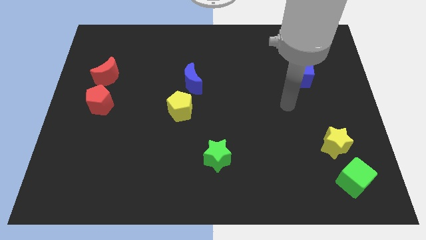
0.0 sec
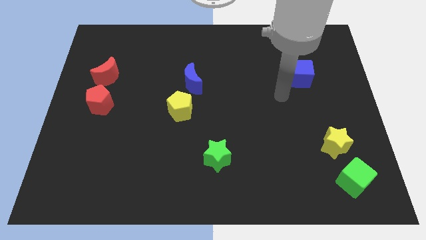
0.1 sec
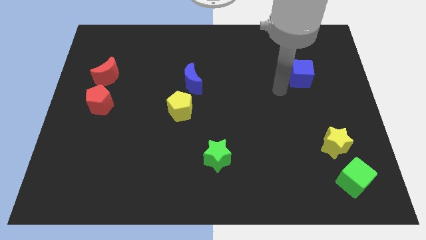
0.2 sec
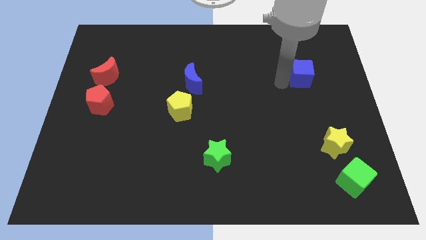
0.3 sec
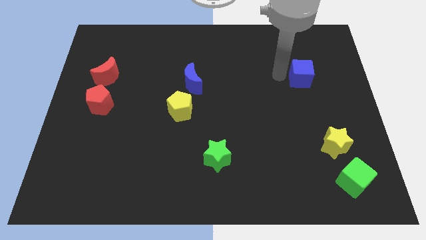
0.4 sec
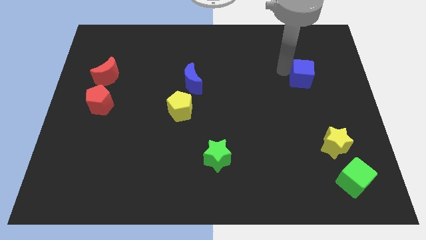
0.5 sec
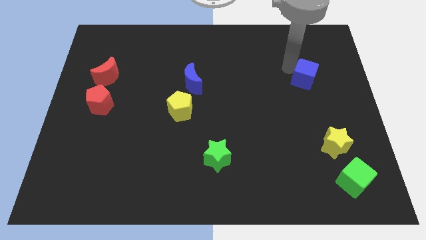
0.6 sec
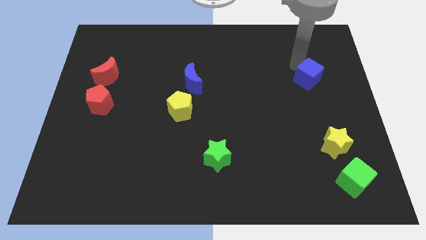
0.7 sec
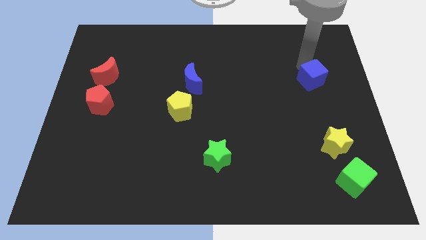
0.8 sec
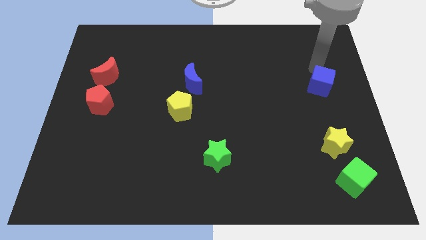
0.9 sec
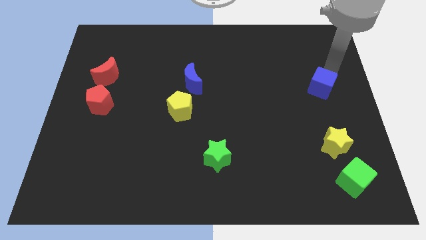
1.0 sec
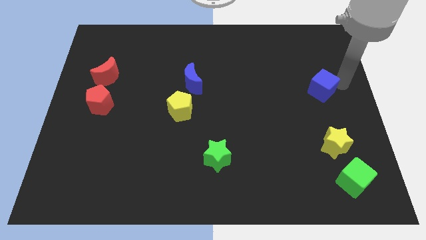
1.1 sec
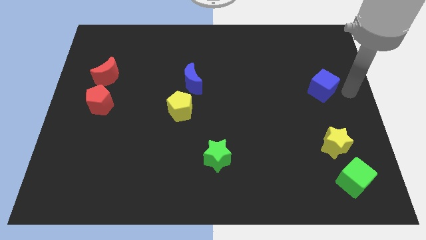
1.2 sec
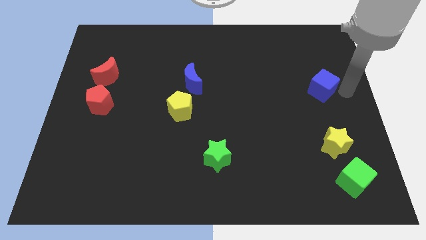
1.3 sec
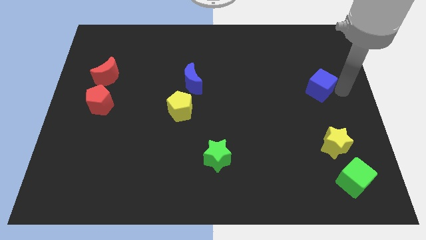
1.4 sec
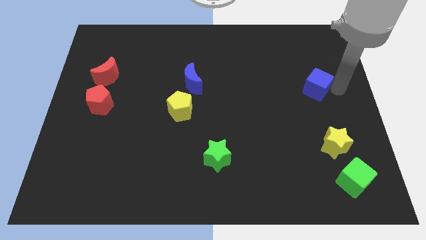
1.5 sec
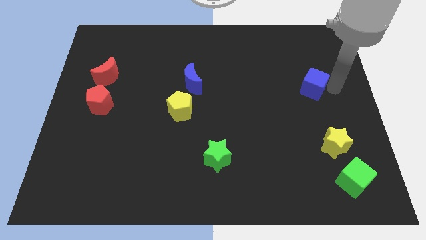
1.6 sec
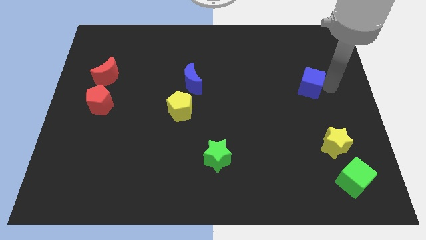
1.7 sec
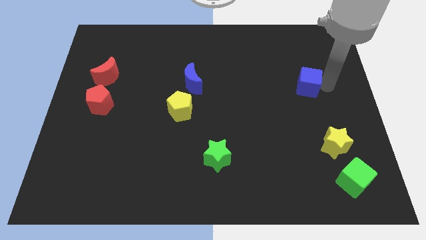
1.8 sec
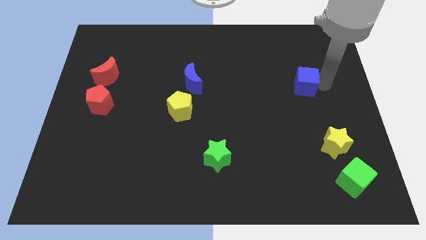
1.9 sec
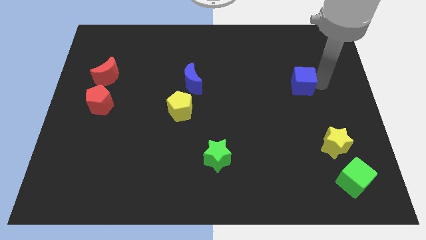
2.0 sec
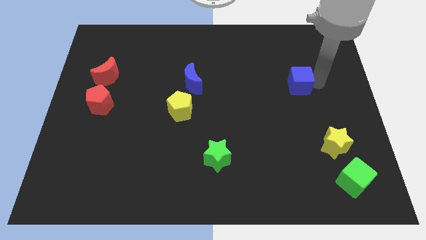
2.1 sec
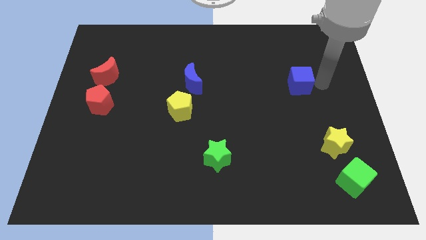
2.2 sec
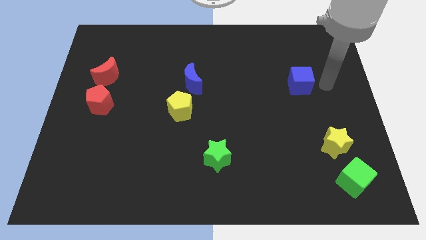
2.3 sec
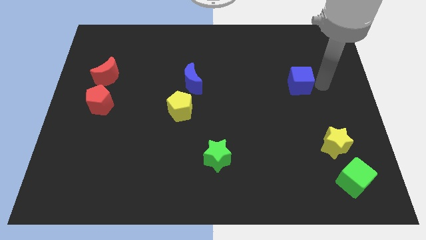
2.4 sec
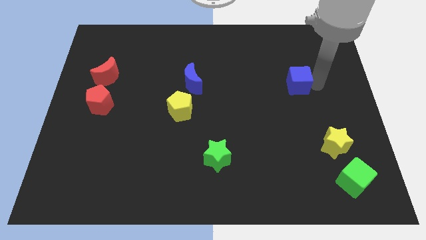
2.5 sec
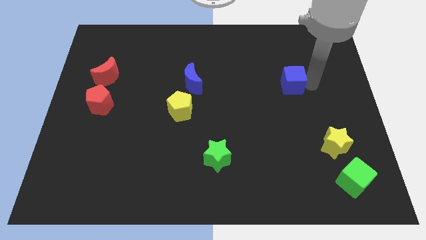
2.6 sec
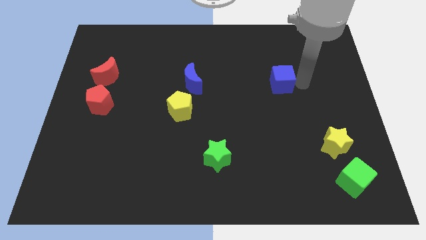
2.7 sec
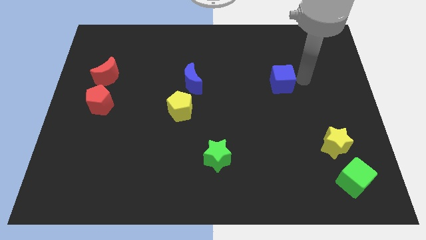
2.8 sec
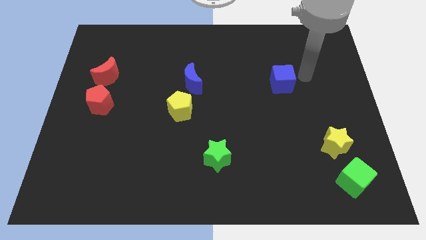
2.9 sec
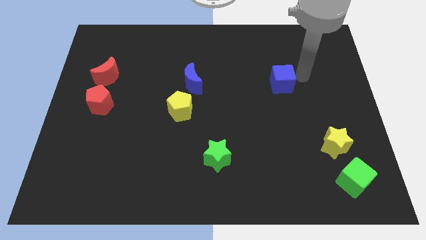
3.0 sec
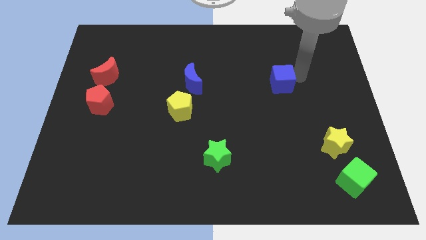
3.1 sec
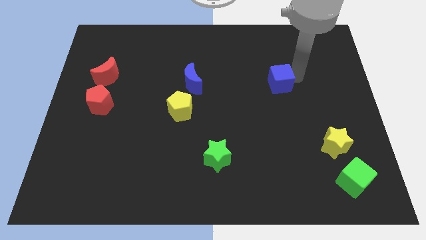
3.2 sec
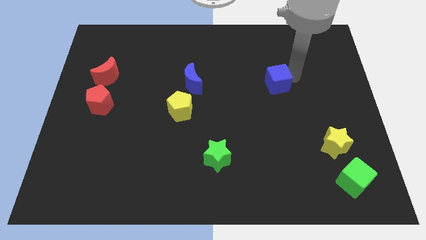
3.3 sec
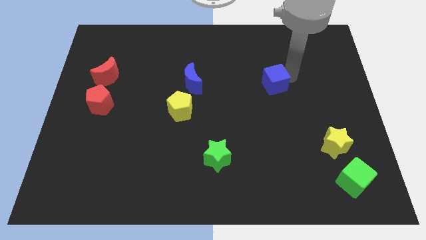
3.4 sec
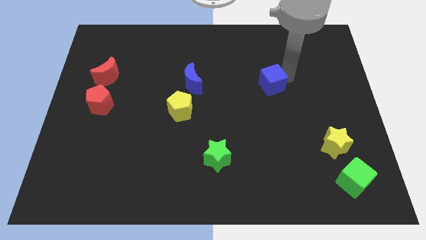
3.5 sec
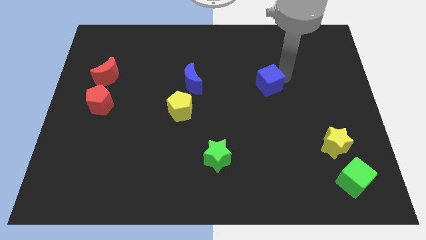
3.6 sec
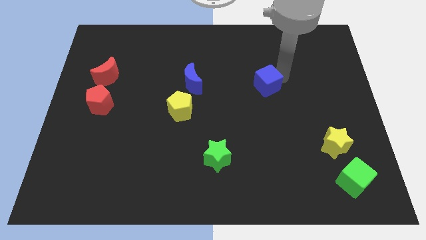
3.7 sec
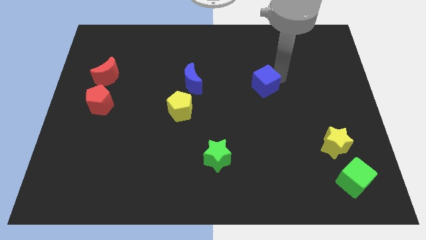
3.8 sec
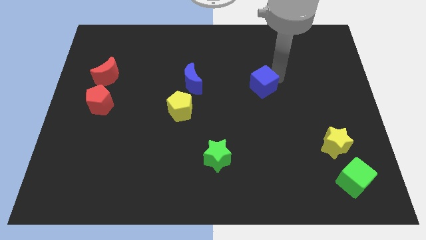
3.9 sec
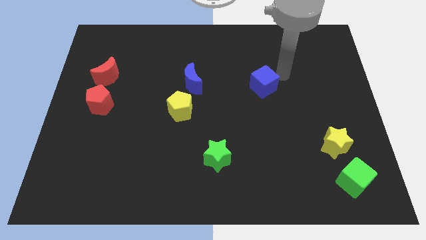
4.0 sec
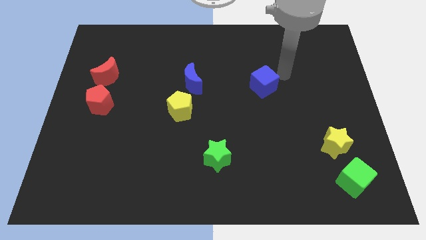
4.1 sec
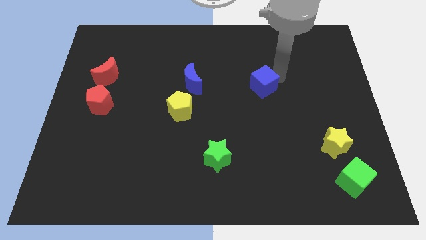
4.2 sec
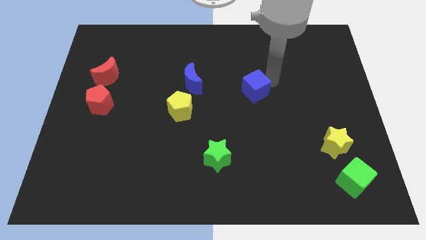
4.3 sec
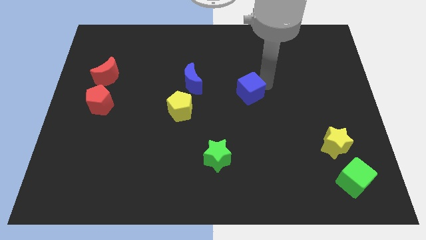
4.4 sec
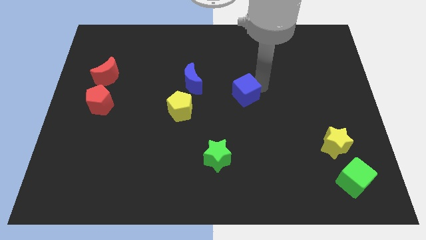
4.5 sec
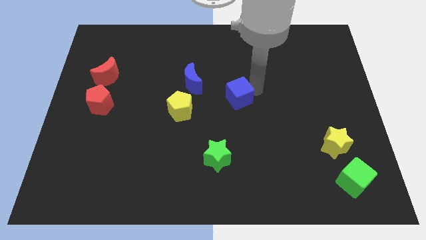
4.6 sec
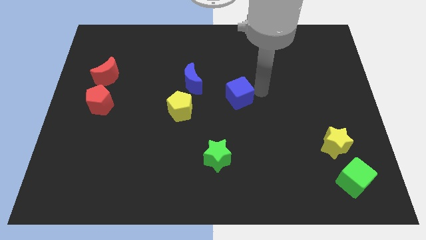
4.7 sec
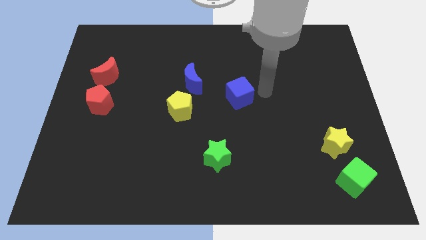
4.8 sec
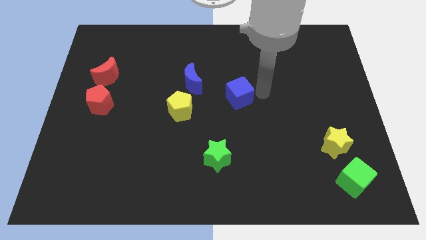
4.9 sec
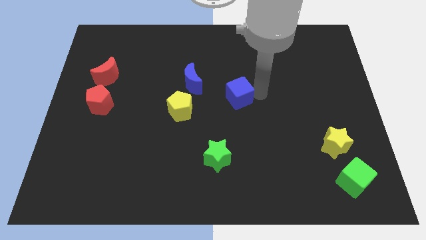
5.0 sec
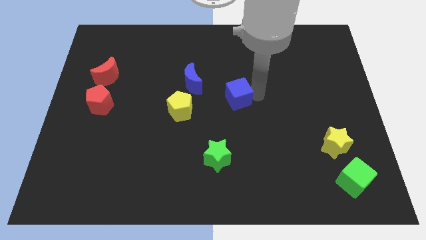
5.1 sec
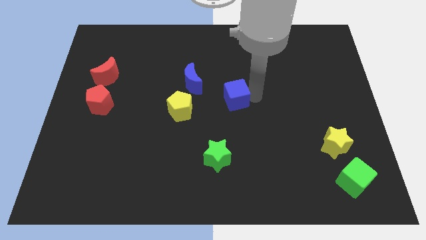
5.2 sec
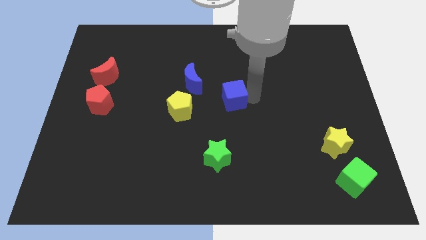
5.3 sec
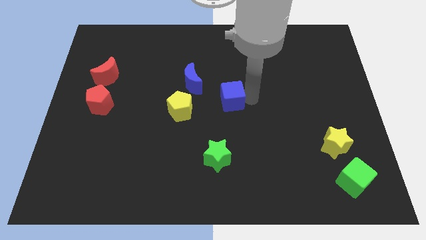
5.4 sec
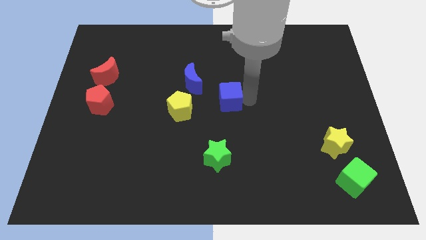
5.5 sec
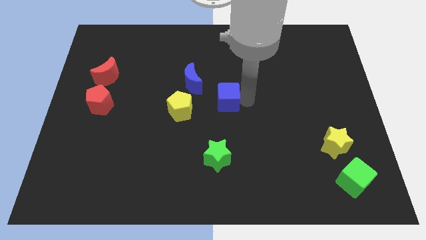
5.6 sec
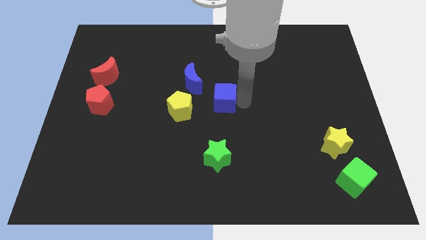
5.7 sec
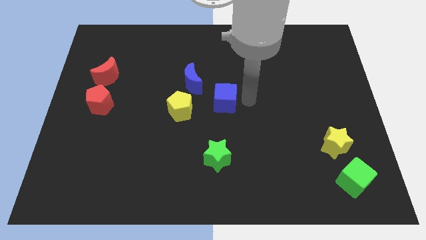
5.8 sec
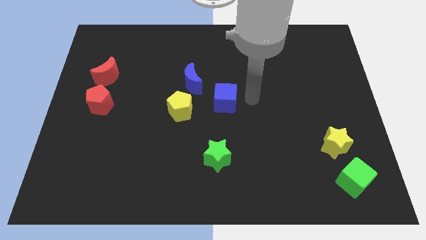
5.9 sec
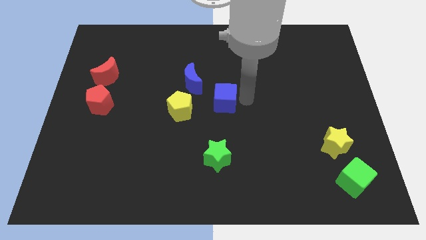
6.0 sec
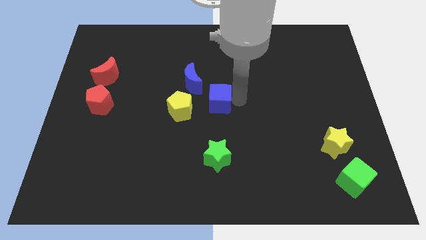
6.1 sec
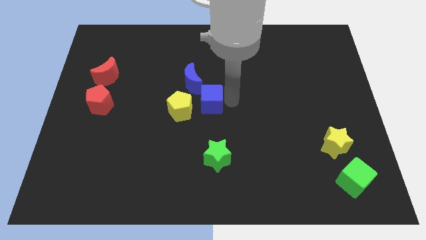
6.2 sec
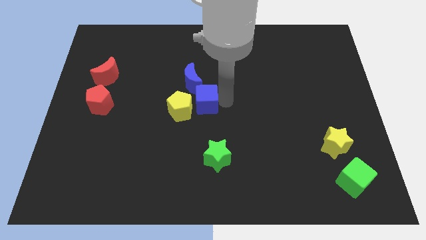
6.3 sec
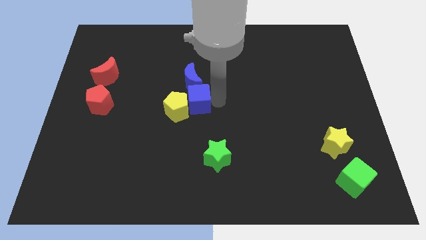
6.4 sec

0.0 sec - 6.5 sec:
put the blue cube next to the yellow pentagon

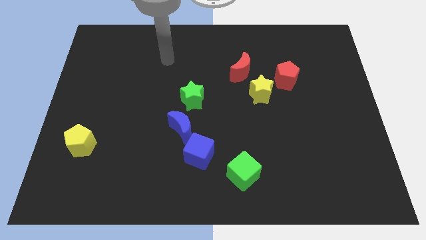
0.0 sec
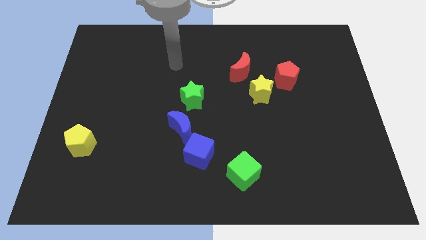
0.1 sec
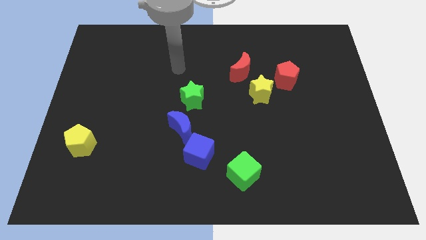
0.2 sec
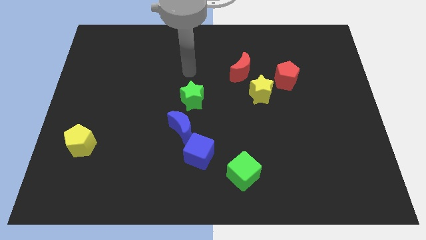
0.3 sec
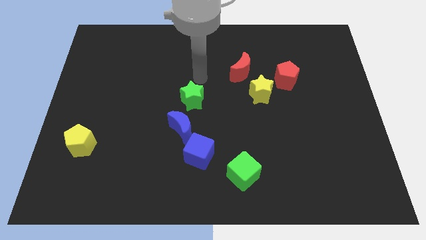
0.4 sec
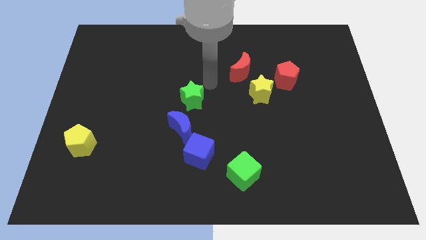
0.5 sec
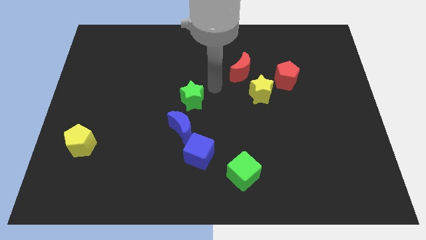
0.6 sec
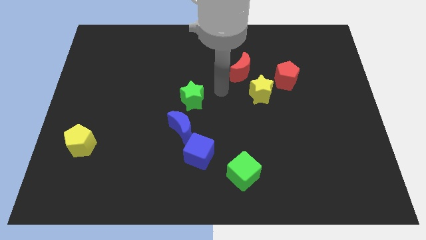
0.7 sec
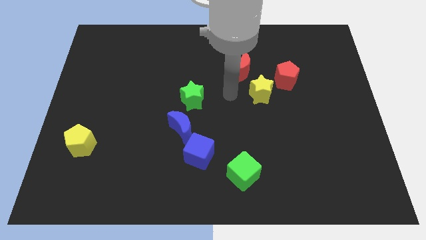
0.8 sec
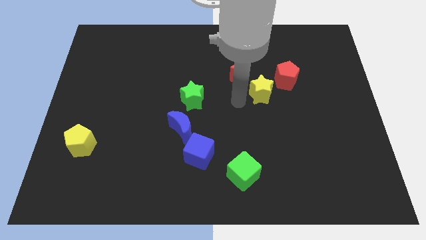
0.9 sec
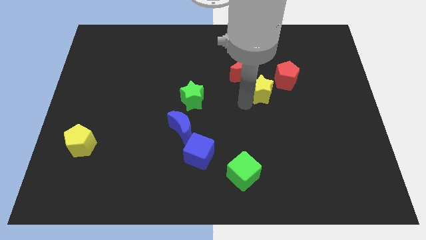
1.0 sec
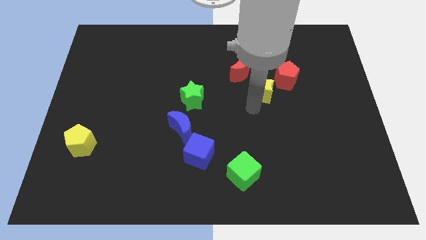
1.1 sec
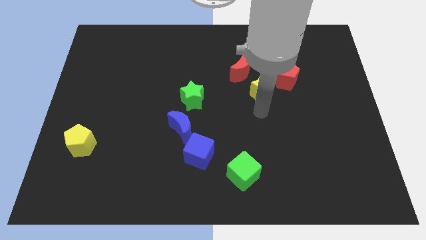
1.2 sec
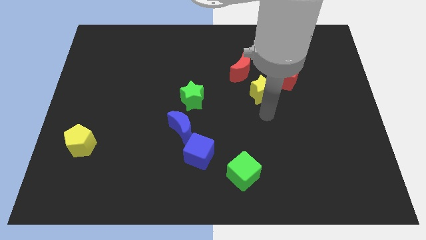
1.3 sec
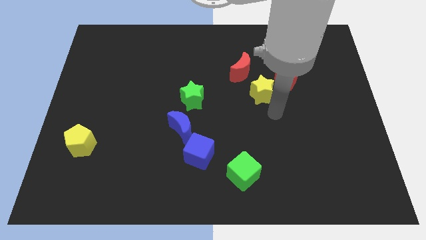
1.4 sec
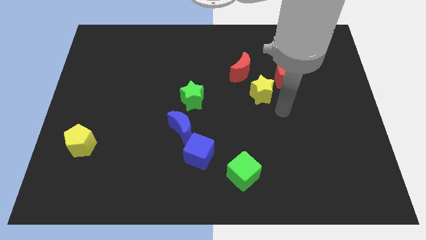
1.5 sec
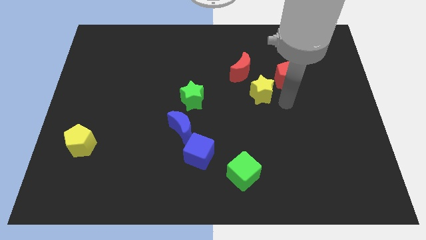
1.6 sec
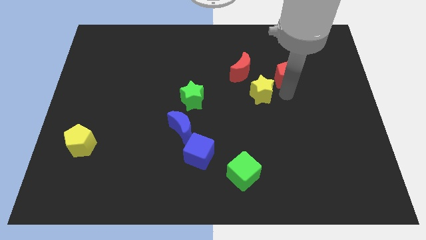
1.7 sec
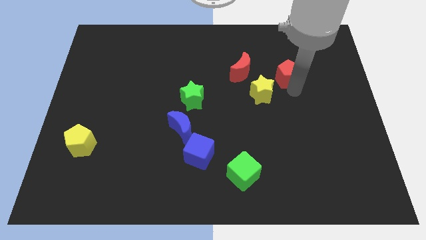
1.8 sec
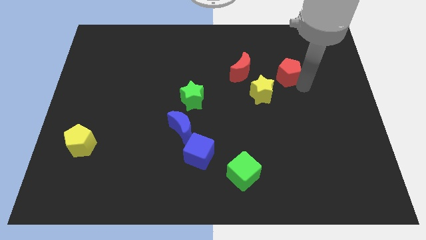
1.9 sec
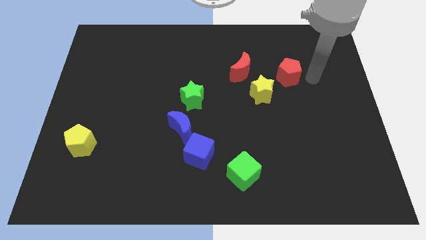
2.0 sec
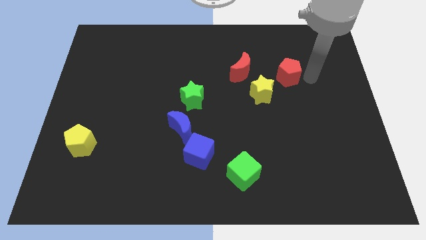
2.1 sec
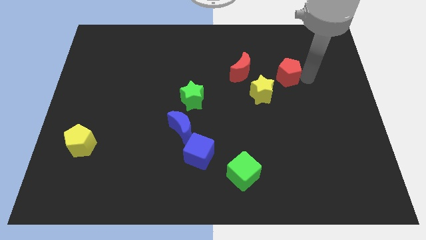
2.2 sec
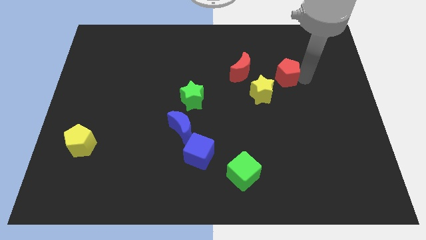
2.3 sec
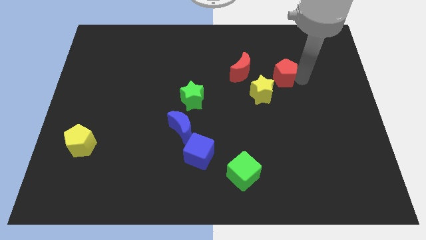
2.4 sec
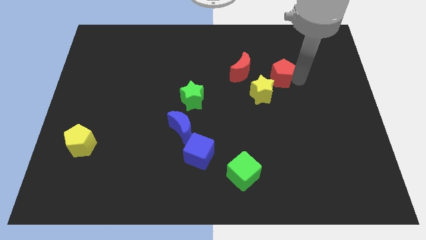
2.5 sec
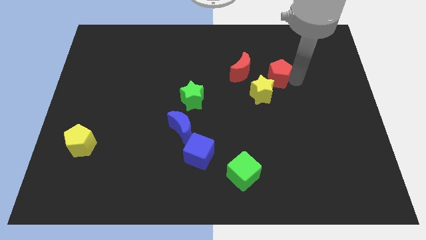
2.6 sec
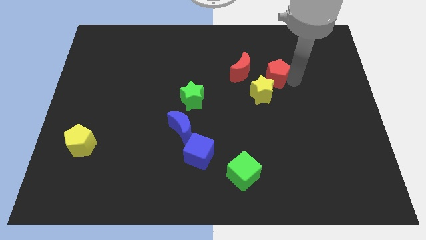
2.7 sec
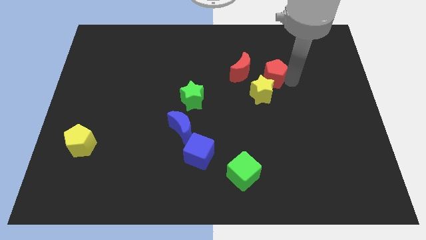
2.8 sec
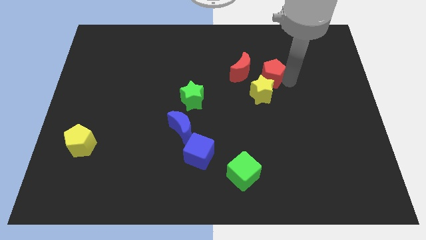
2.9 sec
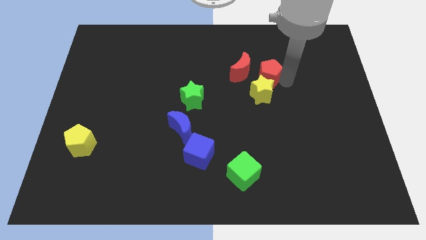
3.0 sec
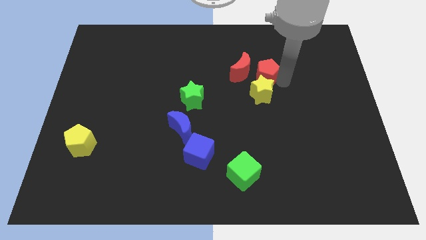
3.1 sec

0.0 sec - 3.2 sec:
push the red pentagon towards the red moon
